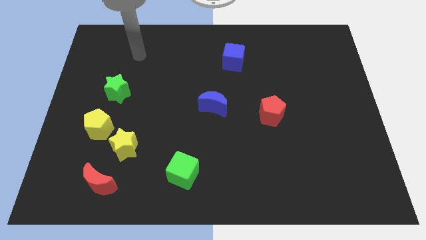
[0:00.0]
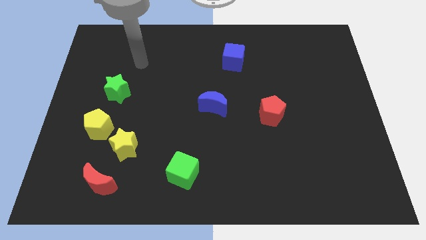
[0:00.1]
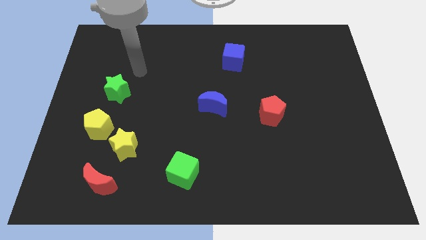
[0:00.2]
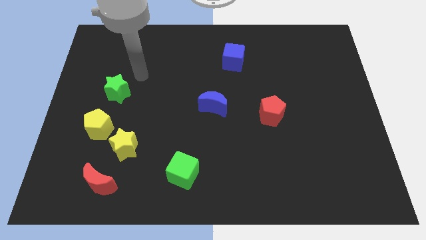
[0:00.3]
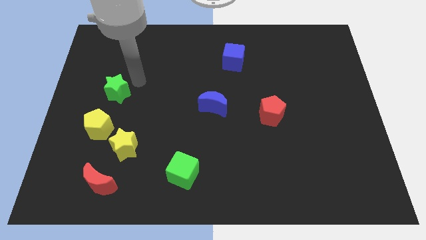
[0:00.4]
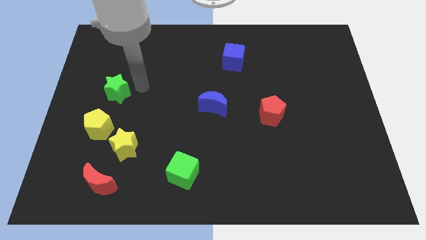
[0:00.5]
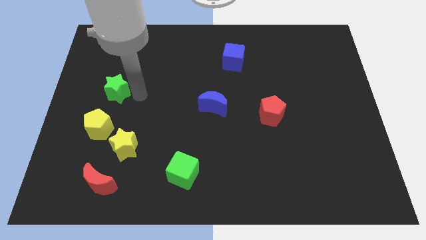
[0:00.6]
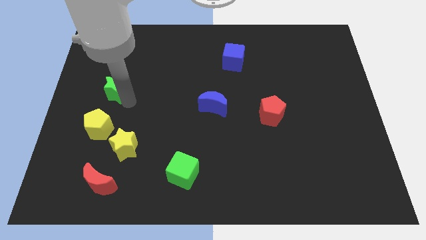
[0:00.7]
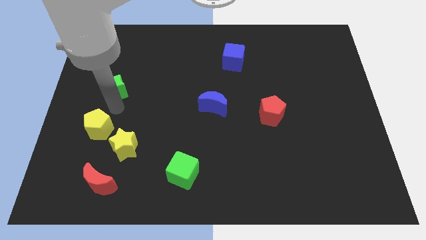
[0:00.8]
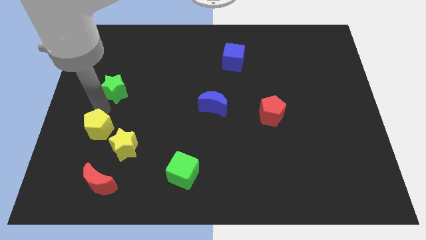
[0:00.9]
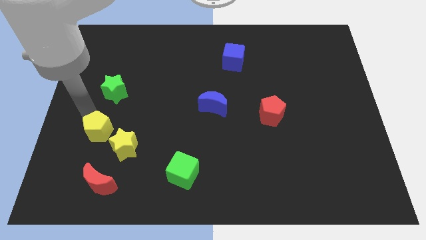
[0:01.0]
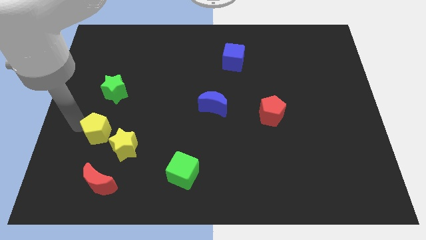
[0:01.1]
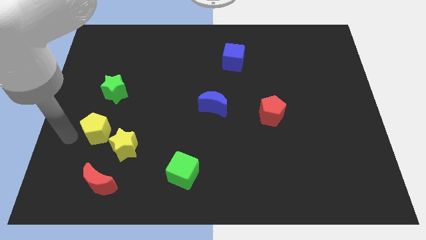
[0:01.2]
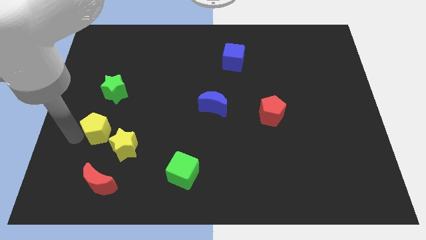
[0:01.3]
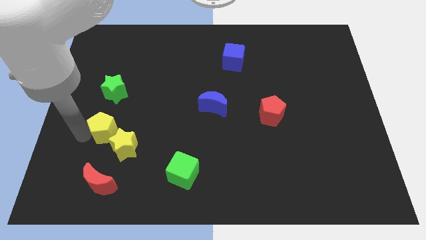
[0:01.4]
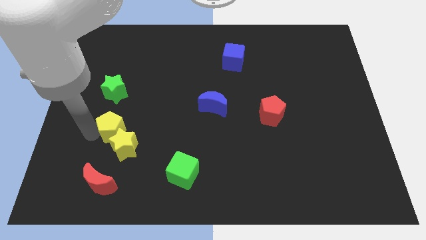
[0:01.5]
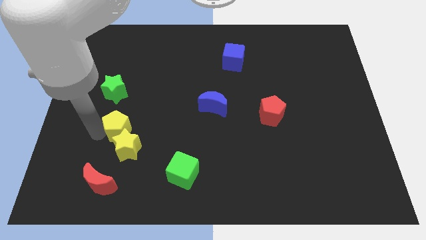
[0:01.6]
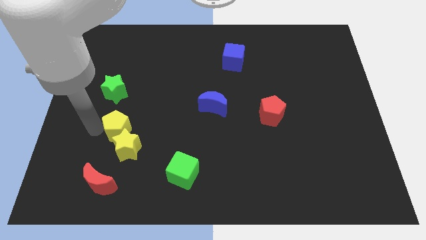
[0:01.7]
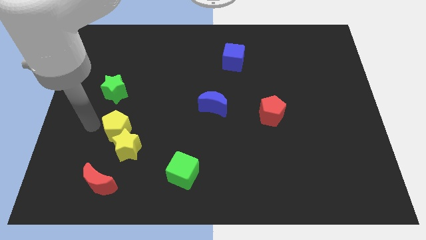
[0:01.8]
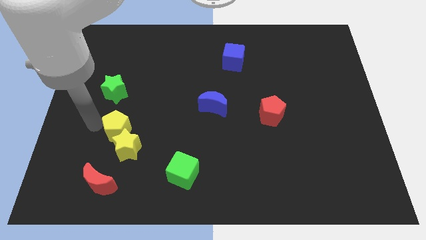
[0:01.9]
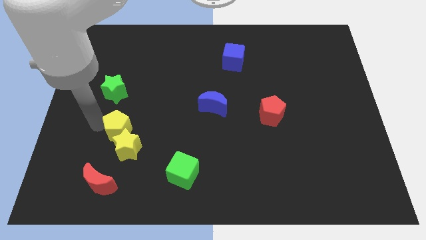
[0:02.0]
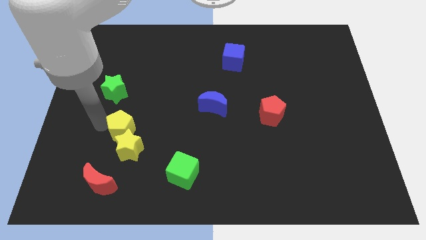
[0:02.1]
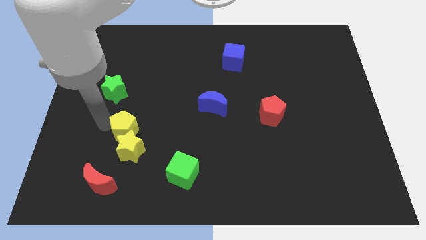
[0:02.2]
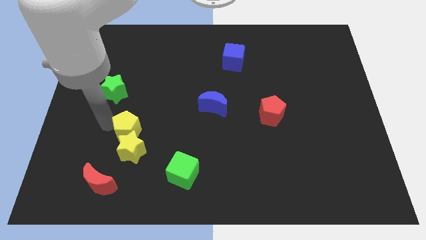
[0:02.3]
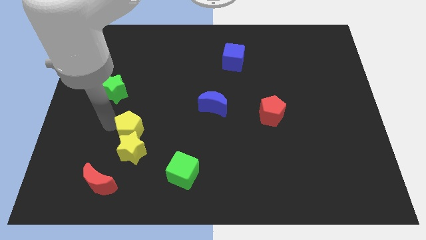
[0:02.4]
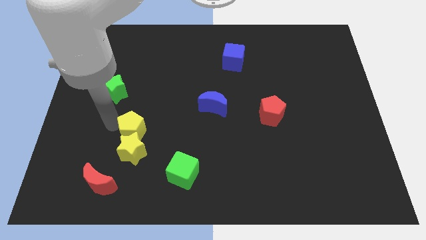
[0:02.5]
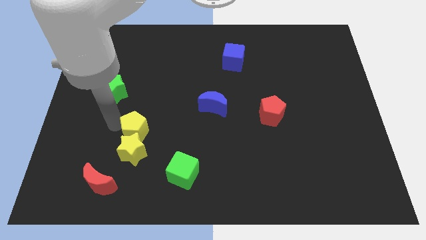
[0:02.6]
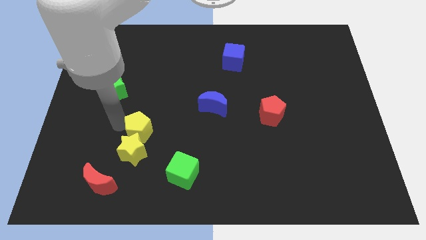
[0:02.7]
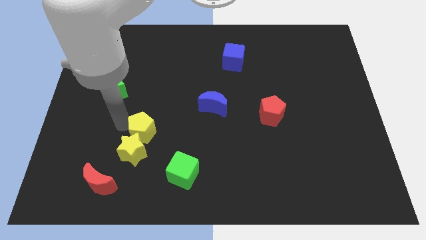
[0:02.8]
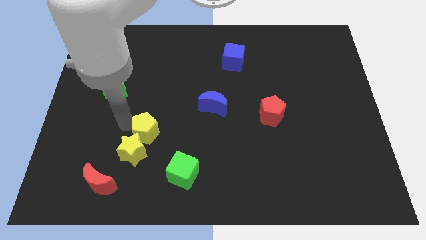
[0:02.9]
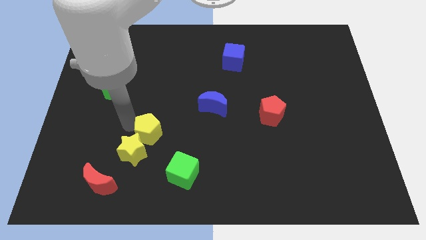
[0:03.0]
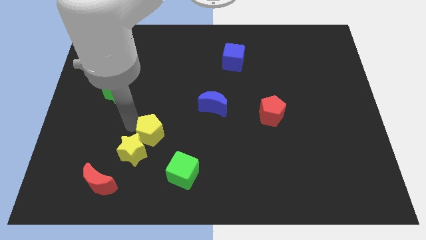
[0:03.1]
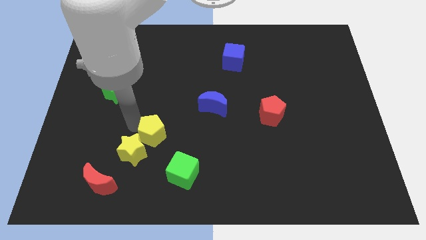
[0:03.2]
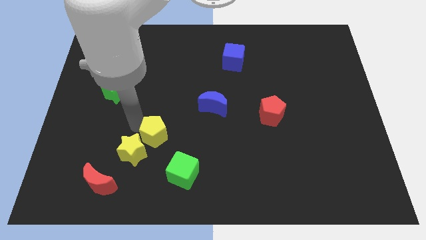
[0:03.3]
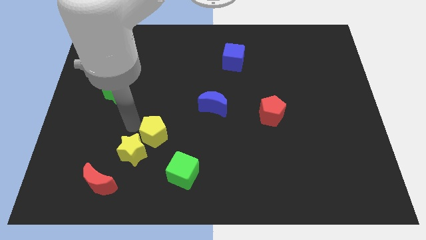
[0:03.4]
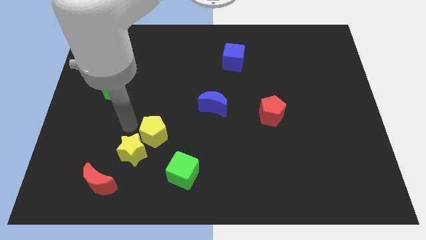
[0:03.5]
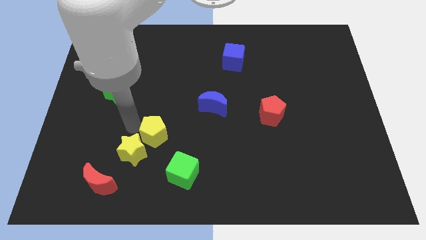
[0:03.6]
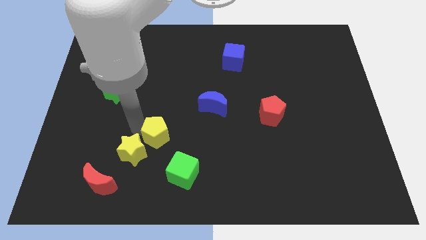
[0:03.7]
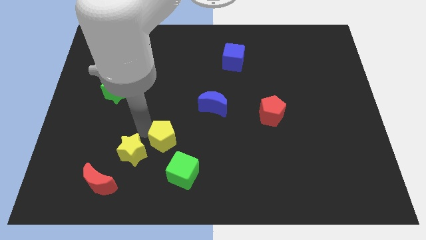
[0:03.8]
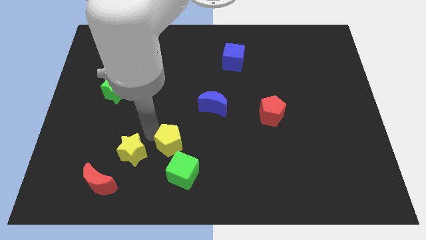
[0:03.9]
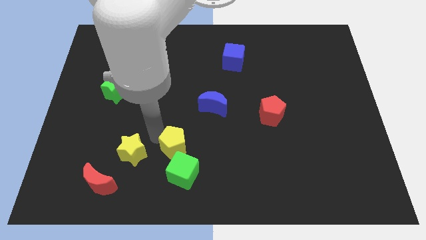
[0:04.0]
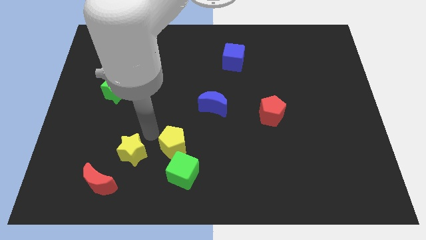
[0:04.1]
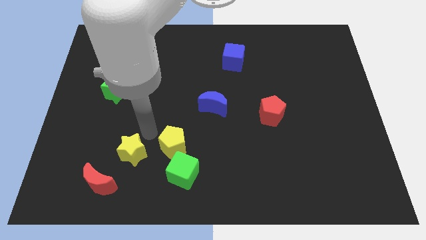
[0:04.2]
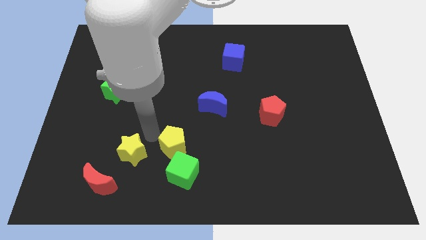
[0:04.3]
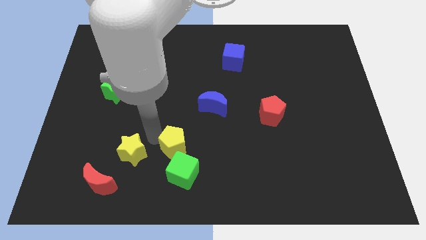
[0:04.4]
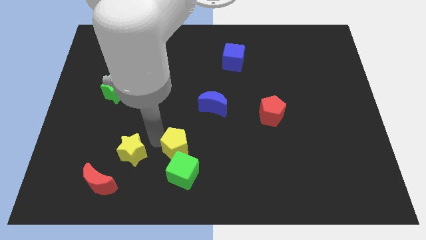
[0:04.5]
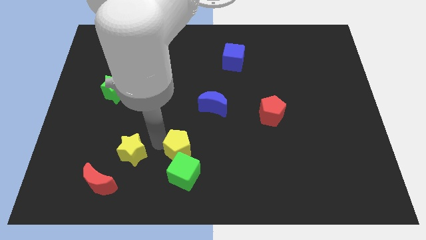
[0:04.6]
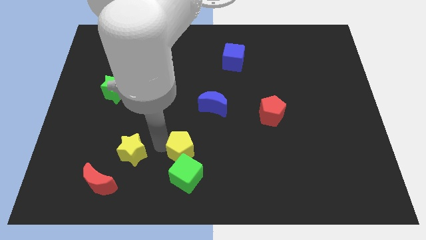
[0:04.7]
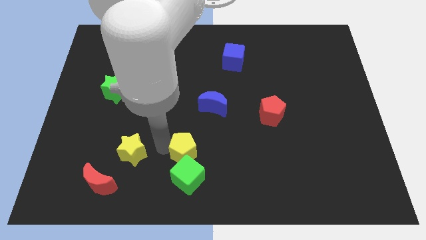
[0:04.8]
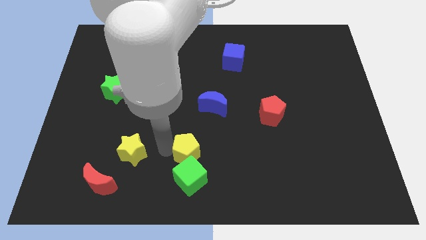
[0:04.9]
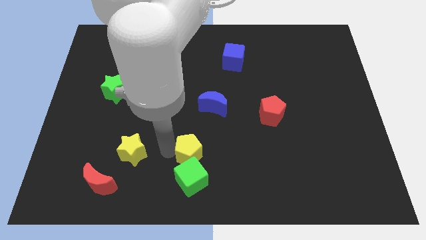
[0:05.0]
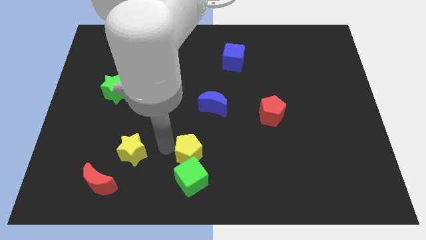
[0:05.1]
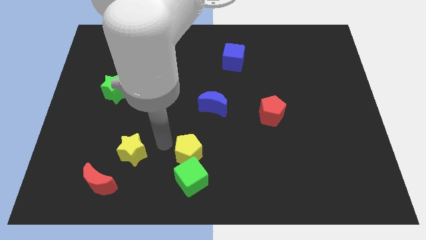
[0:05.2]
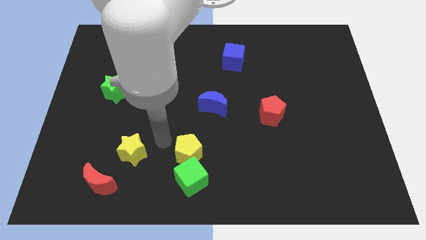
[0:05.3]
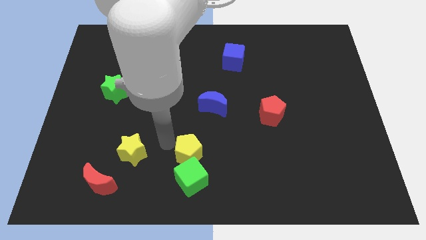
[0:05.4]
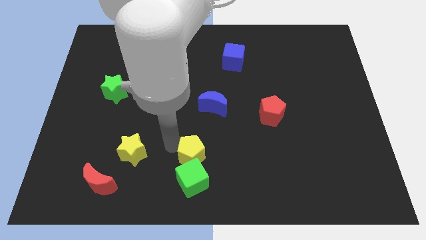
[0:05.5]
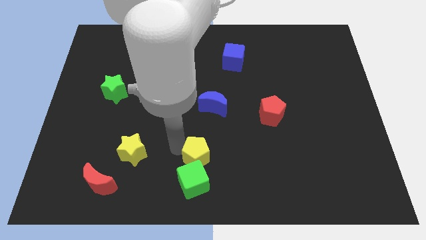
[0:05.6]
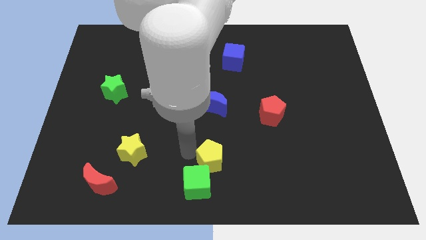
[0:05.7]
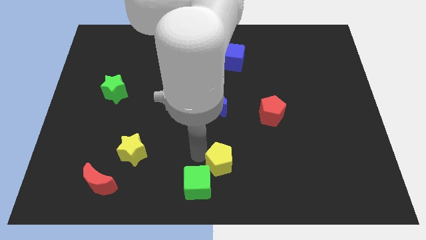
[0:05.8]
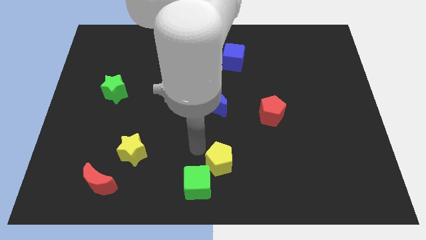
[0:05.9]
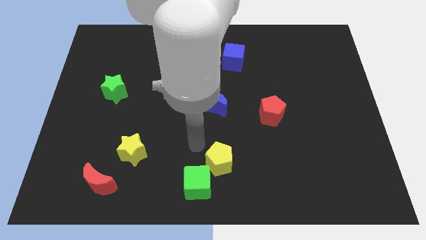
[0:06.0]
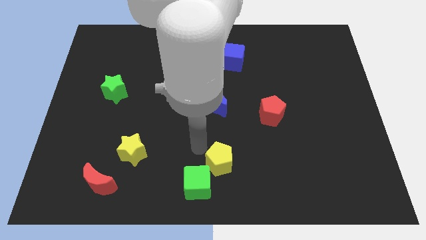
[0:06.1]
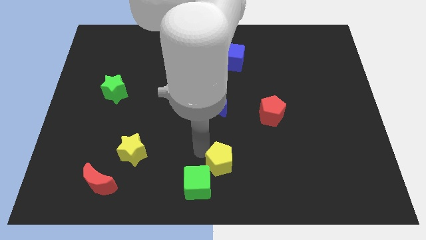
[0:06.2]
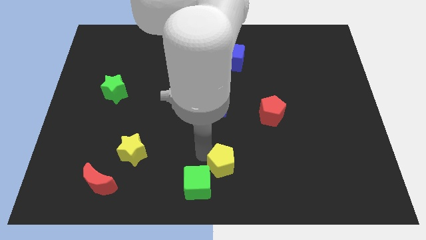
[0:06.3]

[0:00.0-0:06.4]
put the yellow pentagon to the right side of the green cube

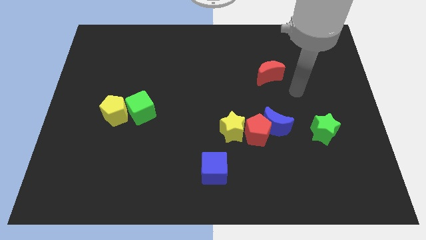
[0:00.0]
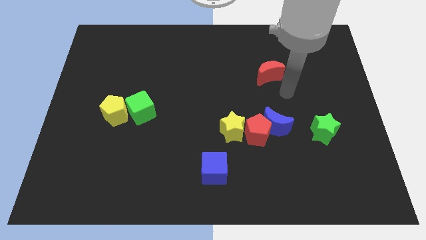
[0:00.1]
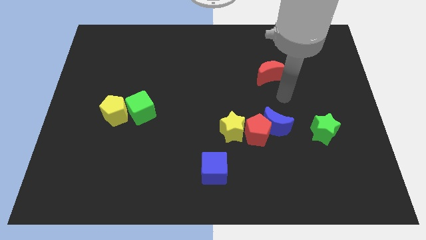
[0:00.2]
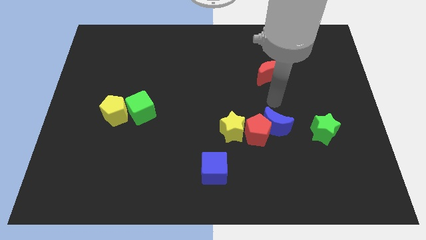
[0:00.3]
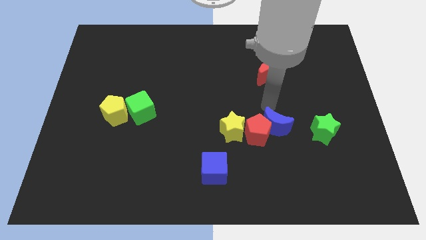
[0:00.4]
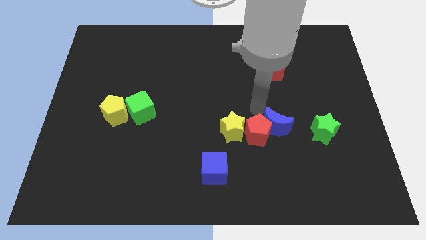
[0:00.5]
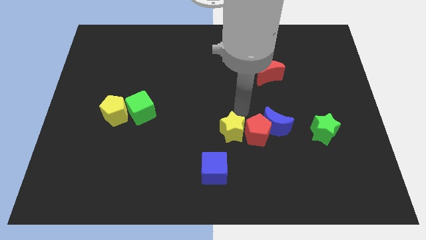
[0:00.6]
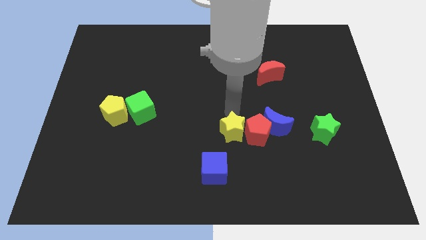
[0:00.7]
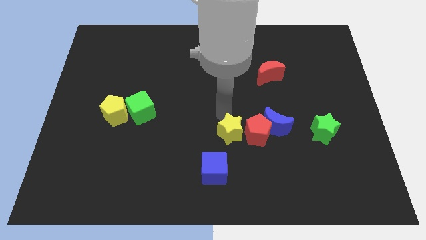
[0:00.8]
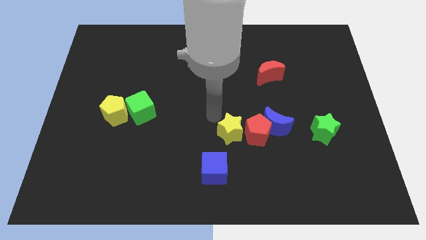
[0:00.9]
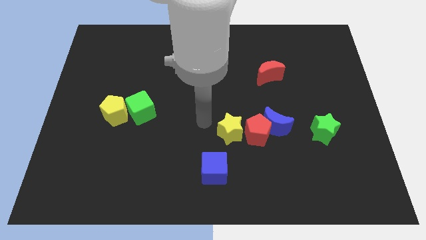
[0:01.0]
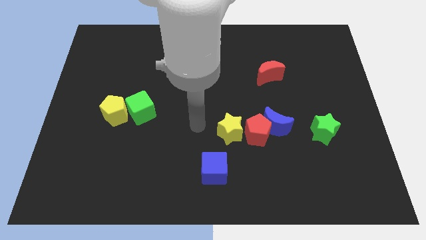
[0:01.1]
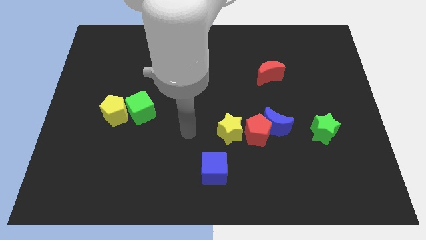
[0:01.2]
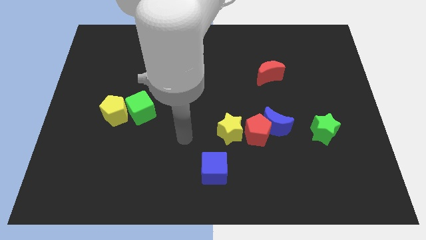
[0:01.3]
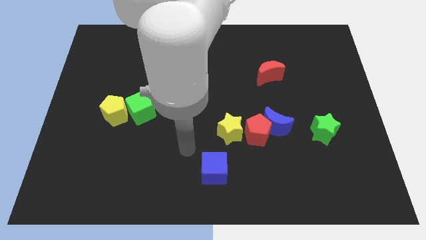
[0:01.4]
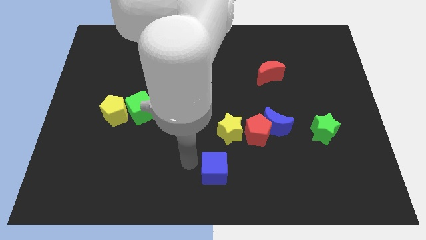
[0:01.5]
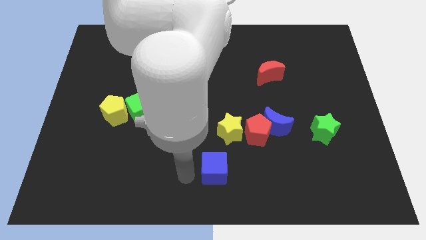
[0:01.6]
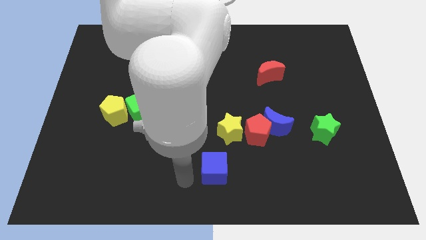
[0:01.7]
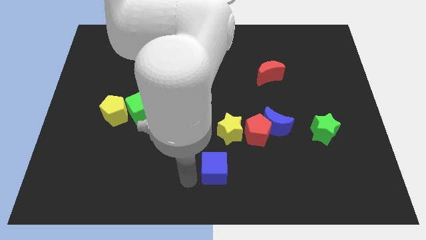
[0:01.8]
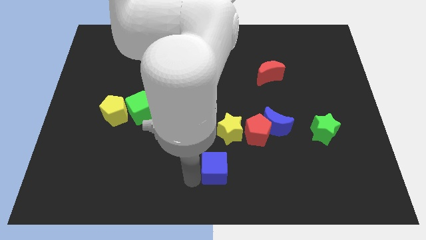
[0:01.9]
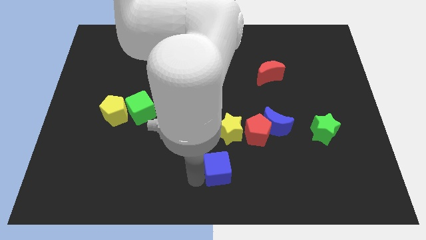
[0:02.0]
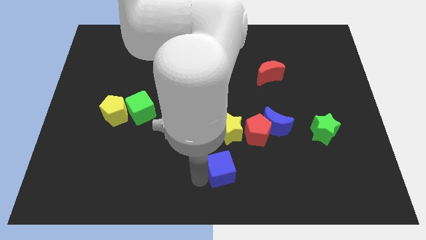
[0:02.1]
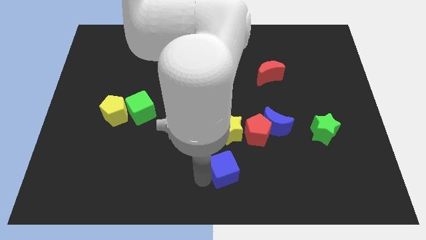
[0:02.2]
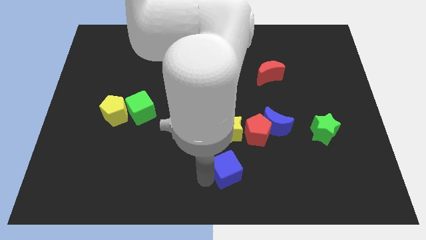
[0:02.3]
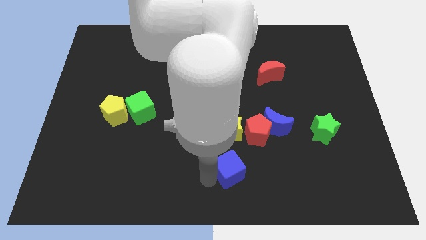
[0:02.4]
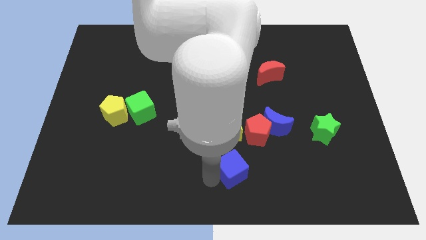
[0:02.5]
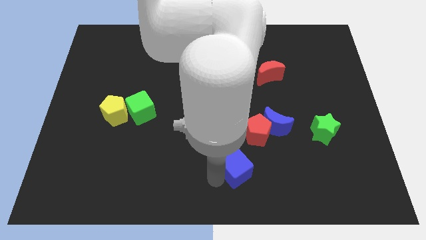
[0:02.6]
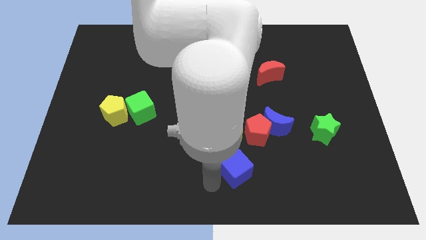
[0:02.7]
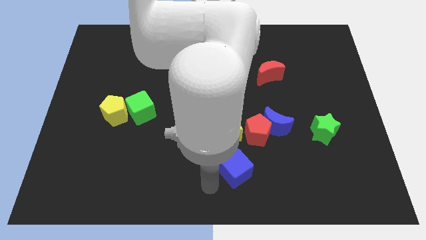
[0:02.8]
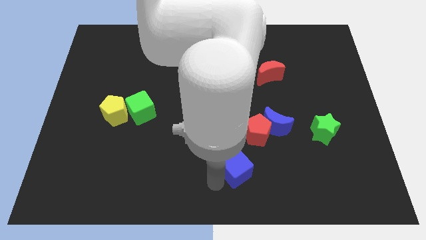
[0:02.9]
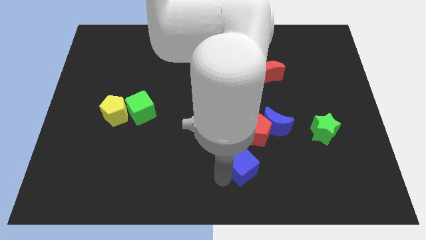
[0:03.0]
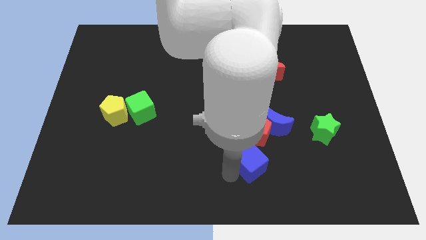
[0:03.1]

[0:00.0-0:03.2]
slide the blue cube diagonally down and to the right of the yellow star
